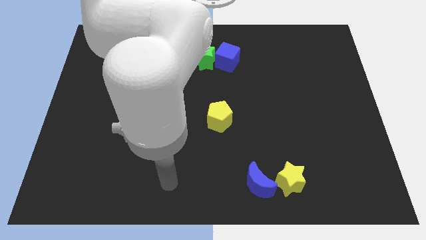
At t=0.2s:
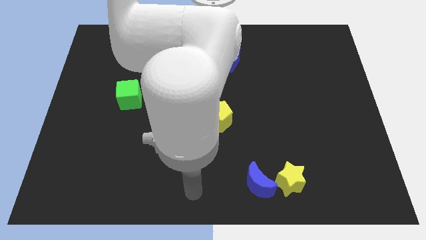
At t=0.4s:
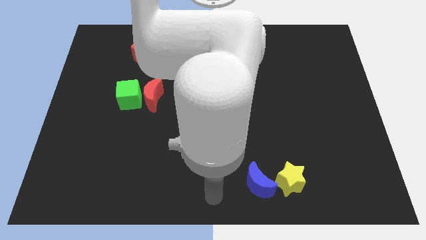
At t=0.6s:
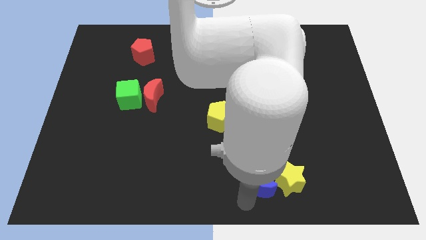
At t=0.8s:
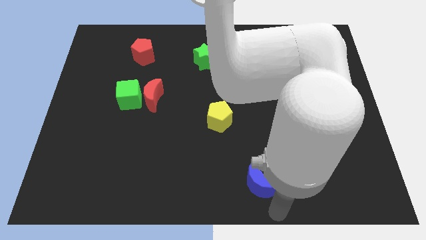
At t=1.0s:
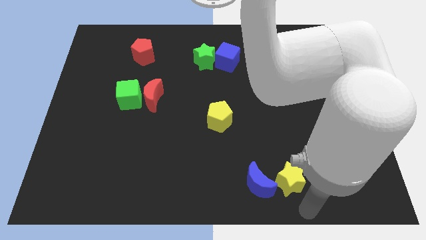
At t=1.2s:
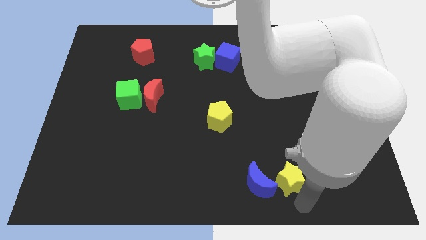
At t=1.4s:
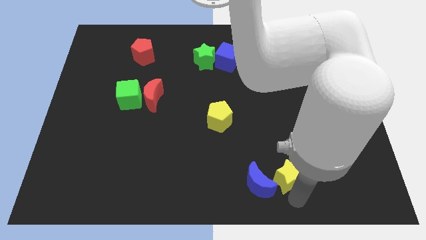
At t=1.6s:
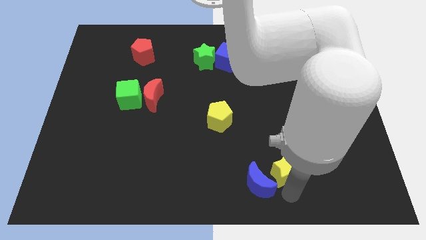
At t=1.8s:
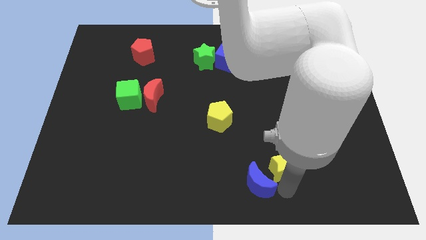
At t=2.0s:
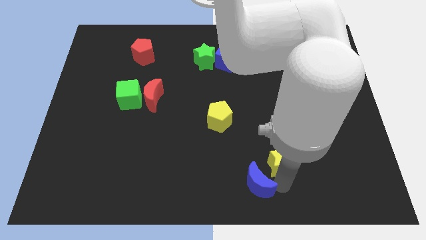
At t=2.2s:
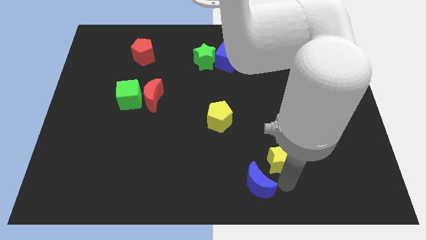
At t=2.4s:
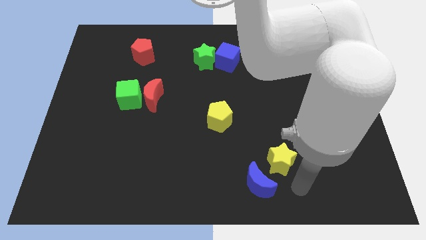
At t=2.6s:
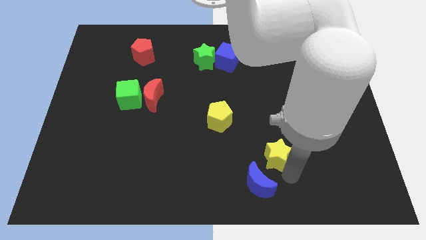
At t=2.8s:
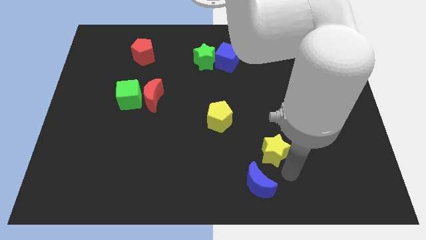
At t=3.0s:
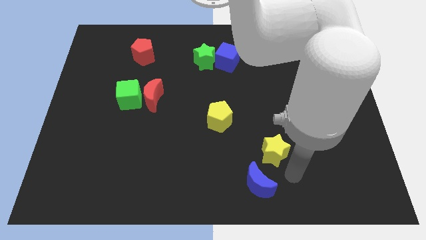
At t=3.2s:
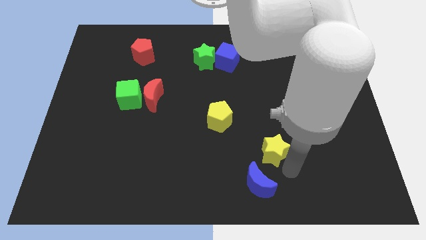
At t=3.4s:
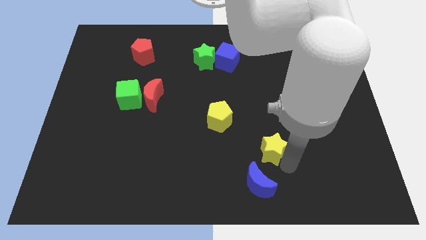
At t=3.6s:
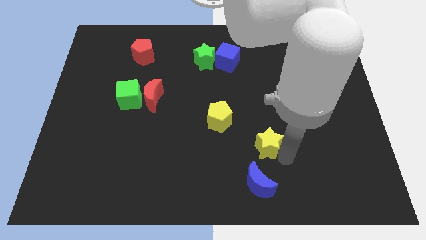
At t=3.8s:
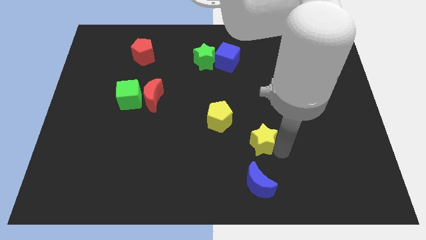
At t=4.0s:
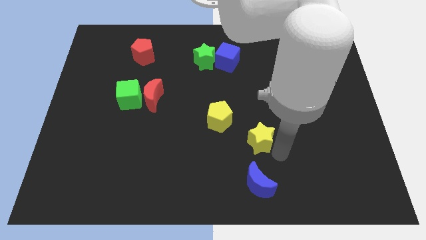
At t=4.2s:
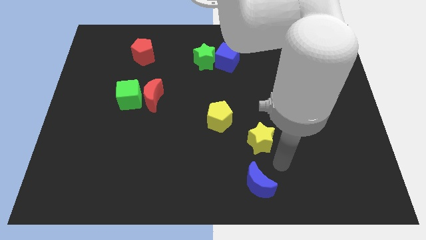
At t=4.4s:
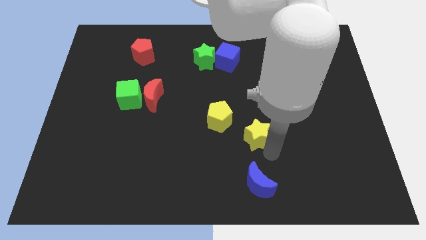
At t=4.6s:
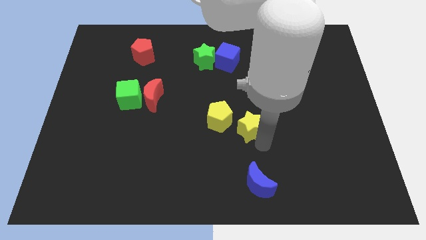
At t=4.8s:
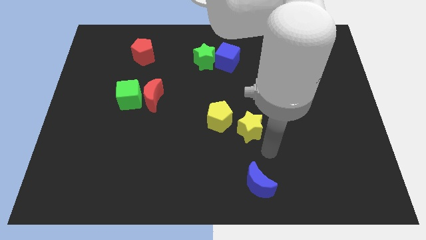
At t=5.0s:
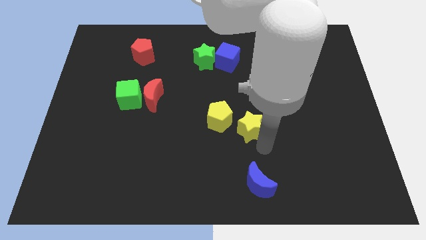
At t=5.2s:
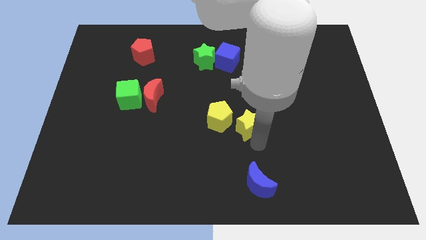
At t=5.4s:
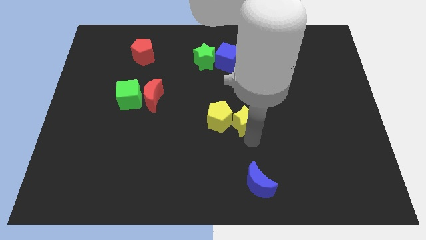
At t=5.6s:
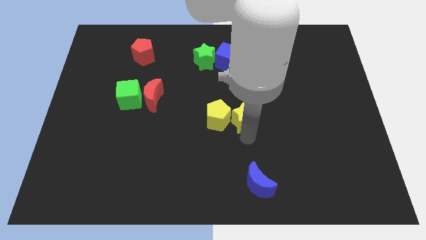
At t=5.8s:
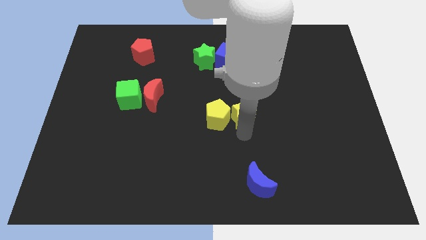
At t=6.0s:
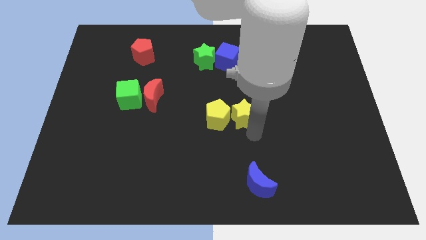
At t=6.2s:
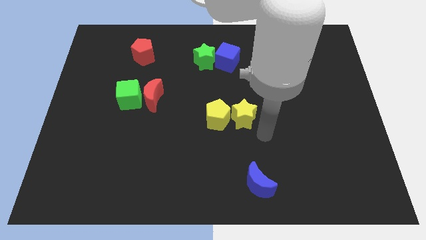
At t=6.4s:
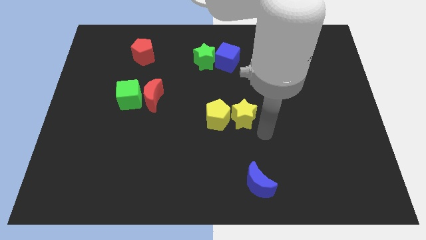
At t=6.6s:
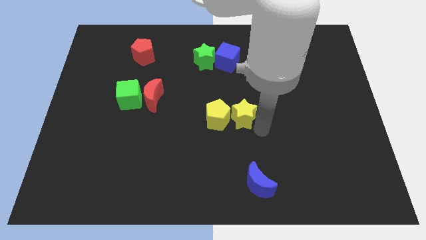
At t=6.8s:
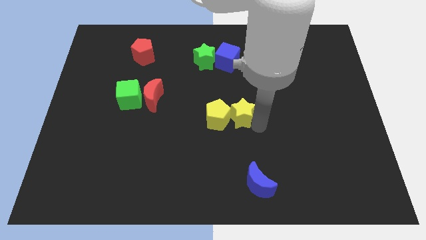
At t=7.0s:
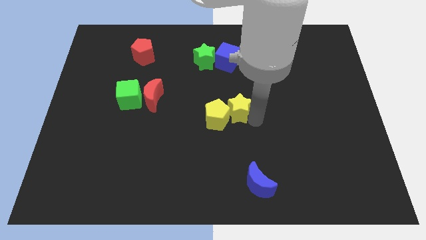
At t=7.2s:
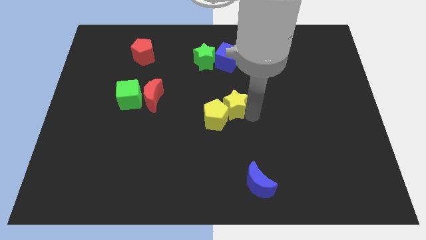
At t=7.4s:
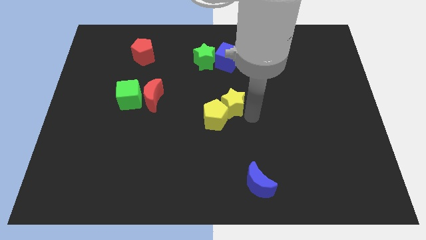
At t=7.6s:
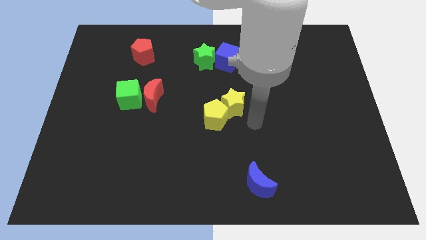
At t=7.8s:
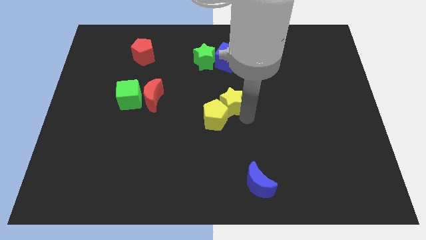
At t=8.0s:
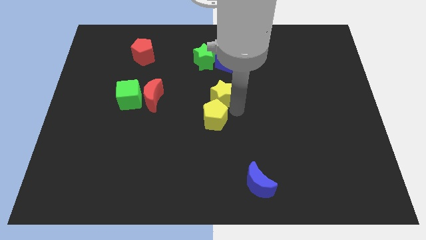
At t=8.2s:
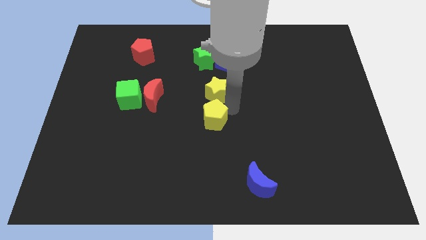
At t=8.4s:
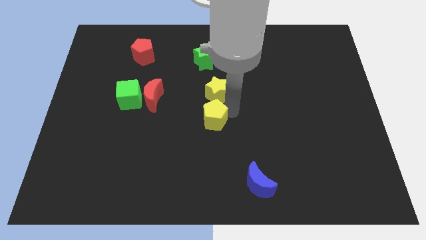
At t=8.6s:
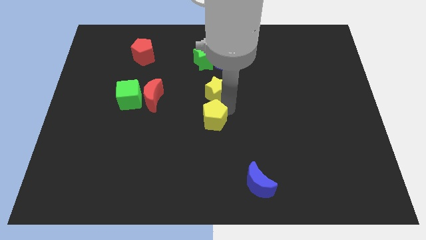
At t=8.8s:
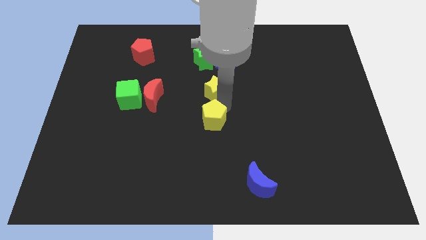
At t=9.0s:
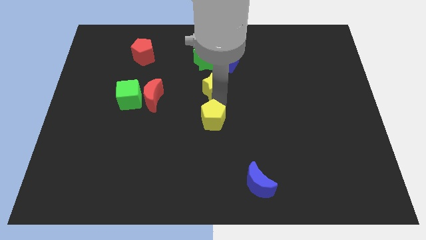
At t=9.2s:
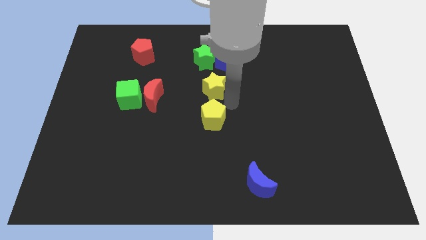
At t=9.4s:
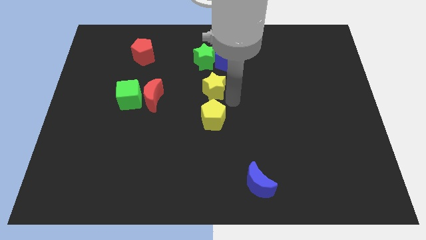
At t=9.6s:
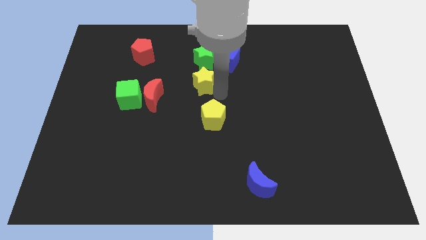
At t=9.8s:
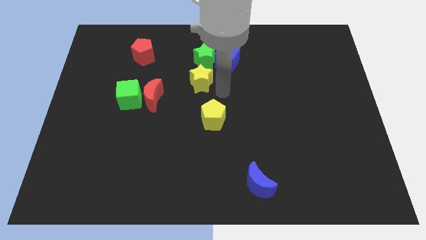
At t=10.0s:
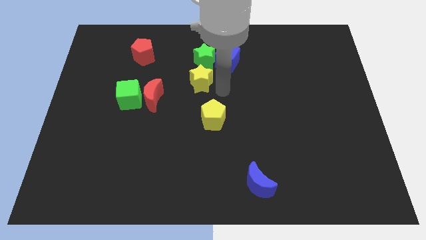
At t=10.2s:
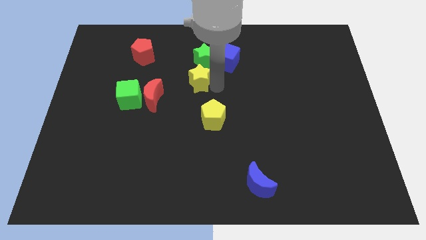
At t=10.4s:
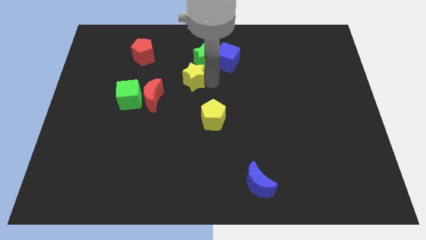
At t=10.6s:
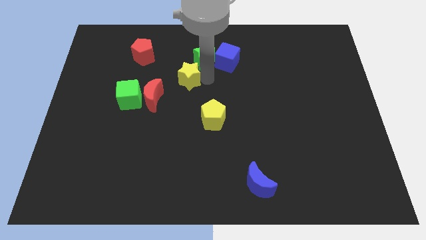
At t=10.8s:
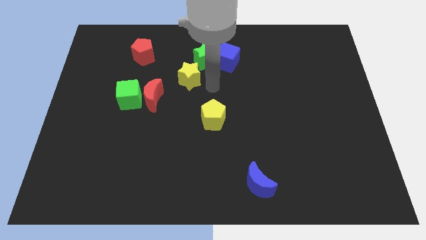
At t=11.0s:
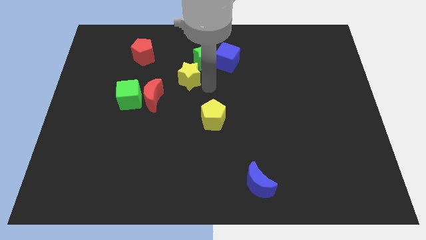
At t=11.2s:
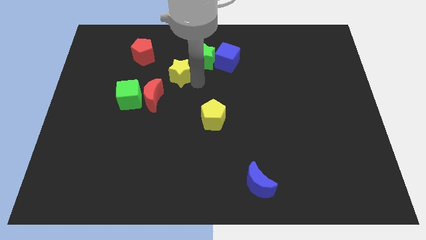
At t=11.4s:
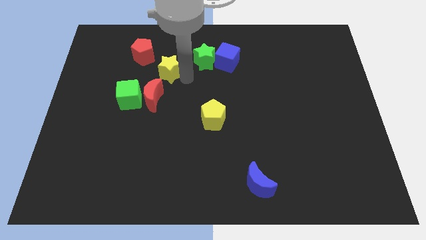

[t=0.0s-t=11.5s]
push the yellow star to the top of the red moon

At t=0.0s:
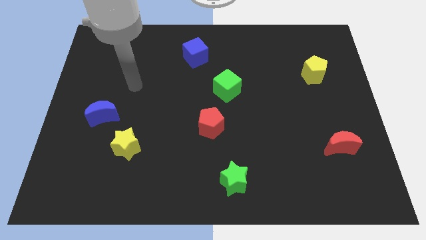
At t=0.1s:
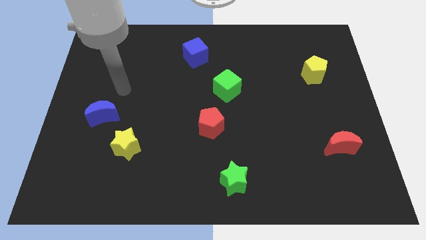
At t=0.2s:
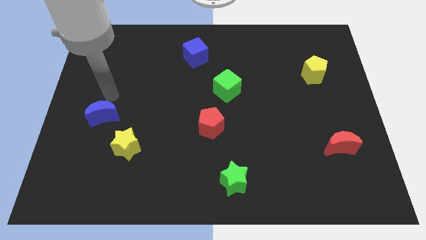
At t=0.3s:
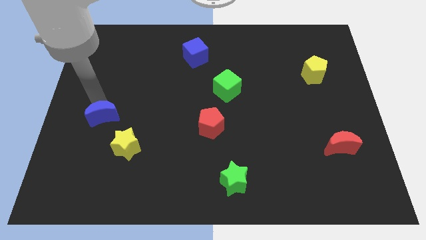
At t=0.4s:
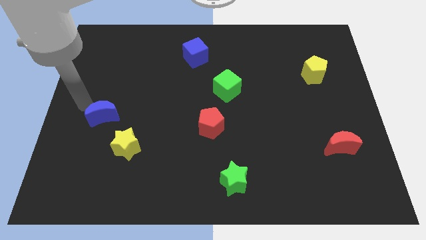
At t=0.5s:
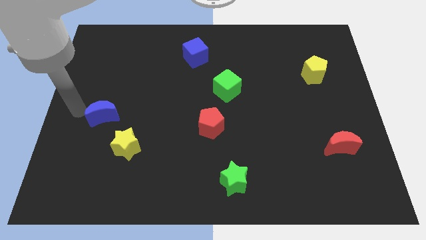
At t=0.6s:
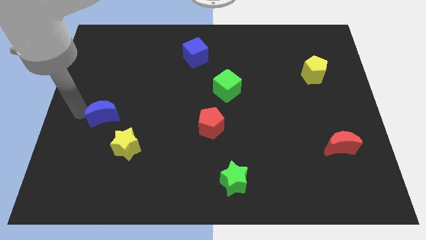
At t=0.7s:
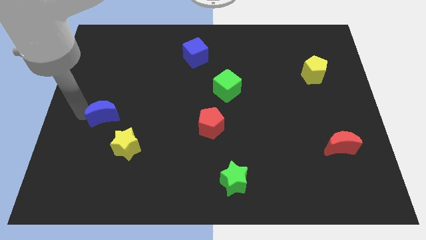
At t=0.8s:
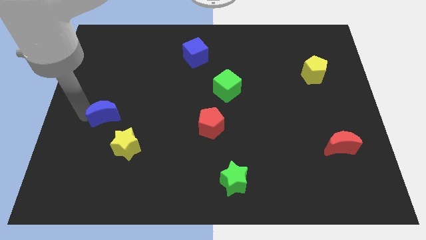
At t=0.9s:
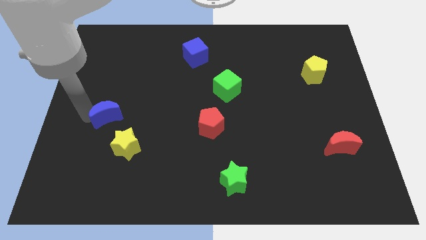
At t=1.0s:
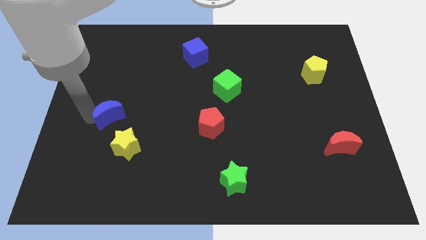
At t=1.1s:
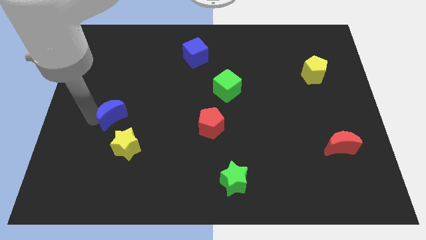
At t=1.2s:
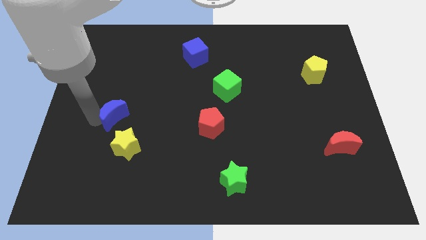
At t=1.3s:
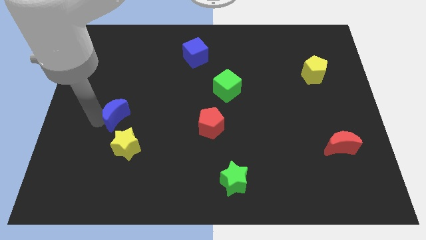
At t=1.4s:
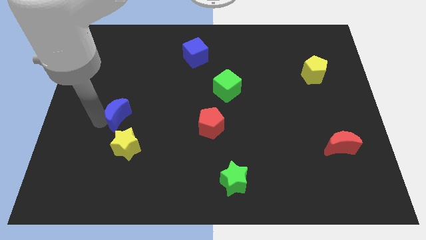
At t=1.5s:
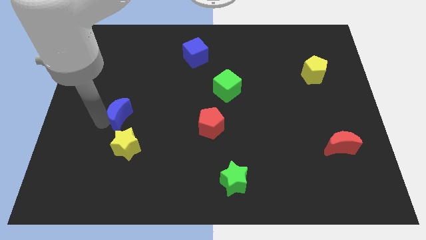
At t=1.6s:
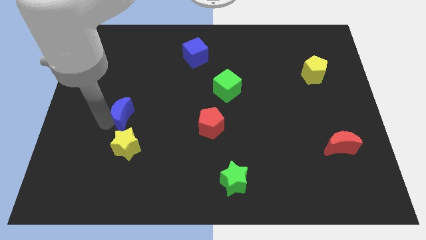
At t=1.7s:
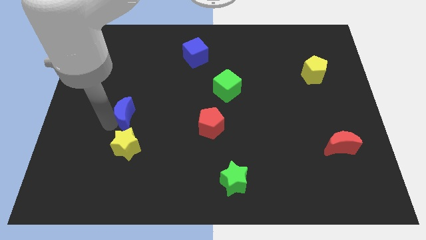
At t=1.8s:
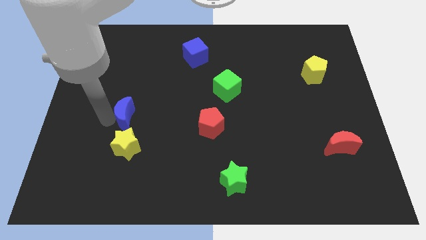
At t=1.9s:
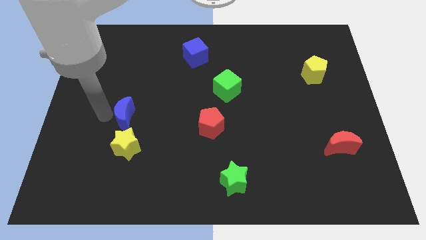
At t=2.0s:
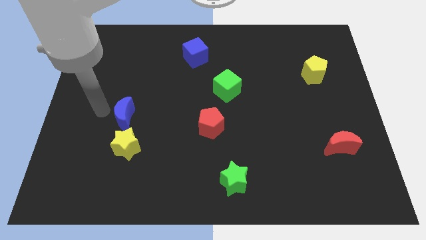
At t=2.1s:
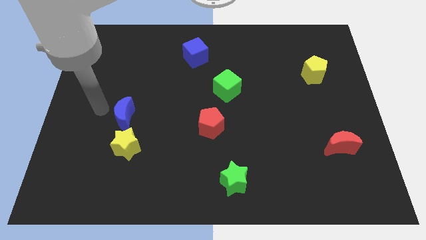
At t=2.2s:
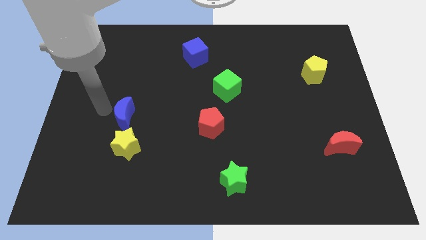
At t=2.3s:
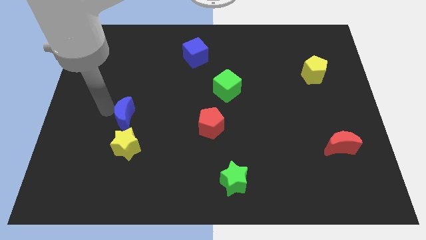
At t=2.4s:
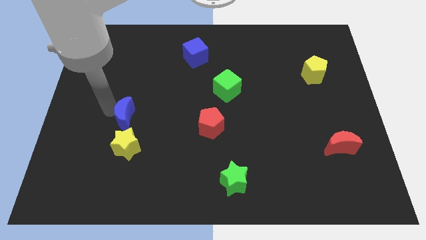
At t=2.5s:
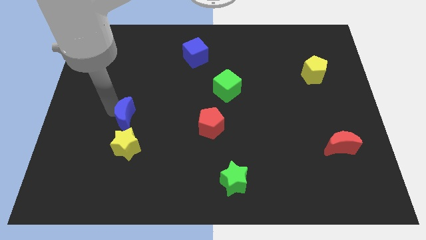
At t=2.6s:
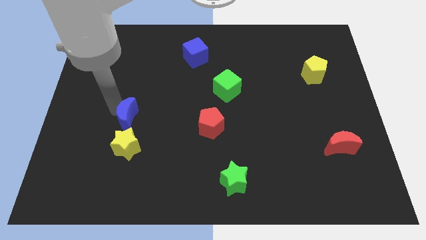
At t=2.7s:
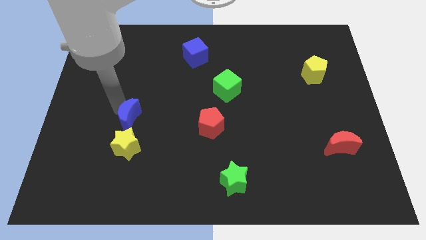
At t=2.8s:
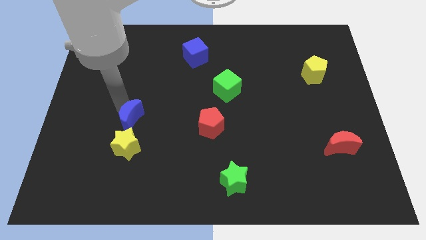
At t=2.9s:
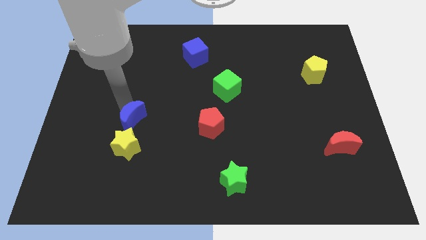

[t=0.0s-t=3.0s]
move the blue moon diagonally up and to the right of the yellow star
